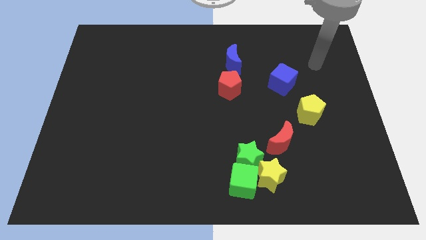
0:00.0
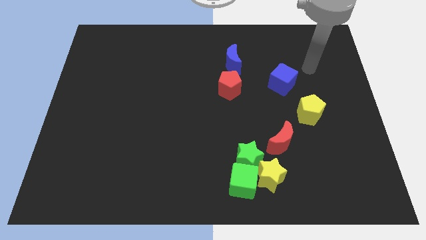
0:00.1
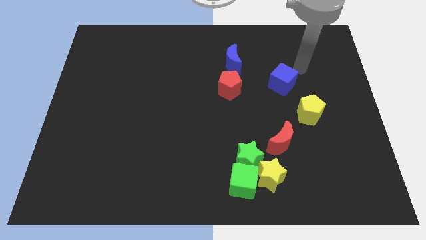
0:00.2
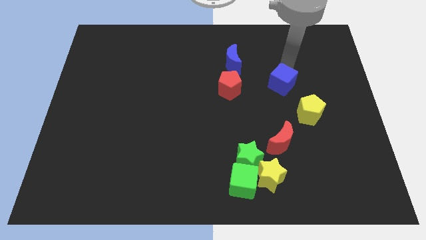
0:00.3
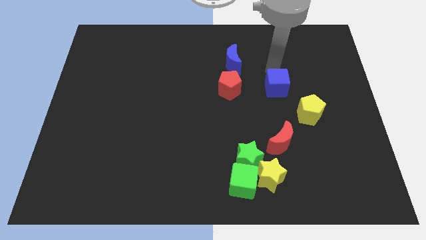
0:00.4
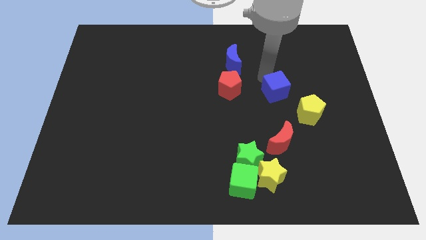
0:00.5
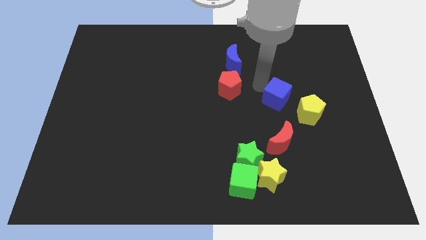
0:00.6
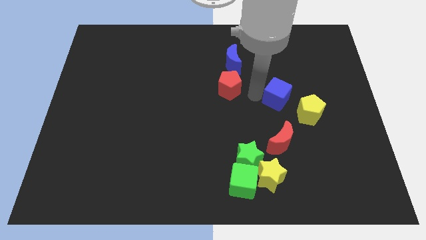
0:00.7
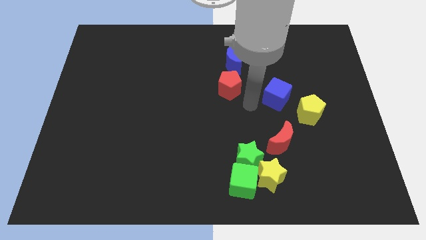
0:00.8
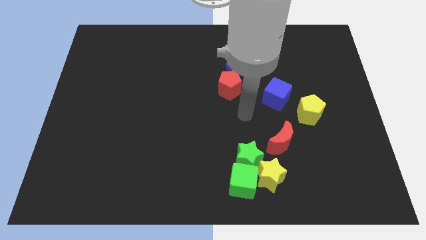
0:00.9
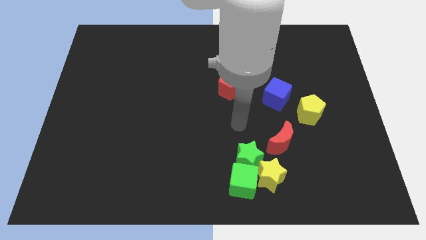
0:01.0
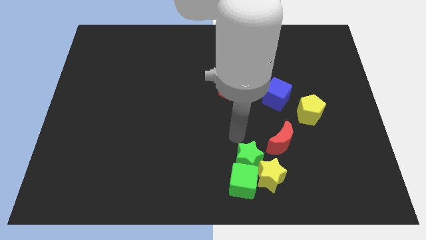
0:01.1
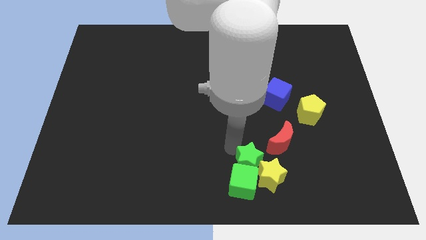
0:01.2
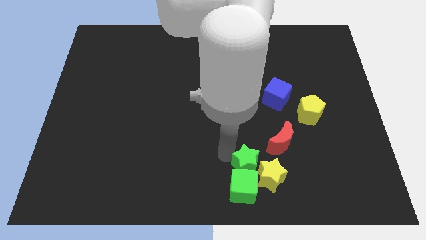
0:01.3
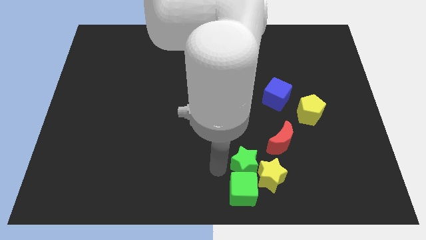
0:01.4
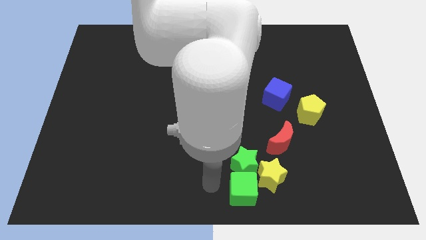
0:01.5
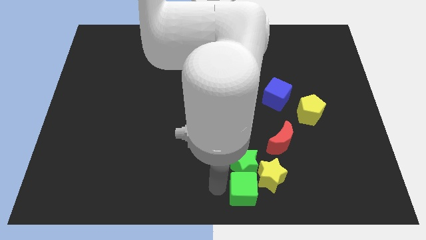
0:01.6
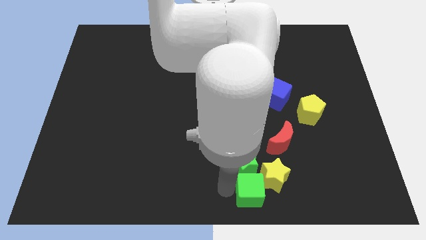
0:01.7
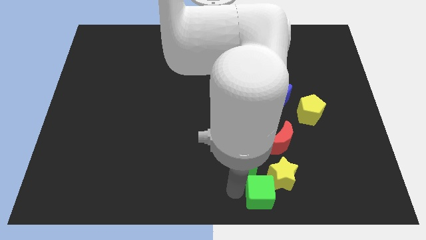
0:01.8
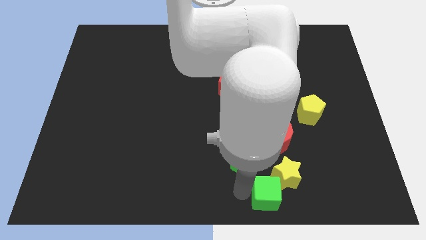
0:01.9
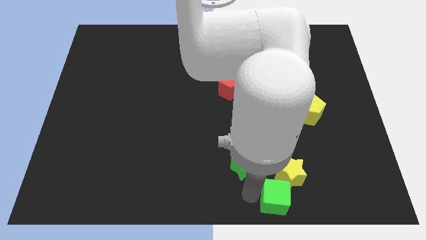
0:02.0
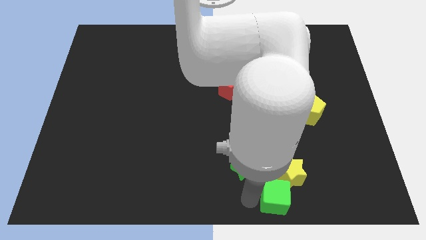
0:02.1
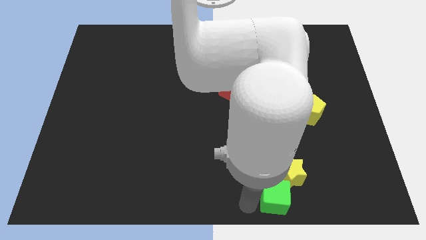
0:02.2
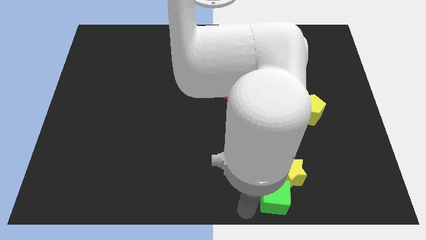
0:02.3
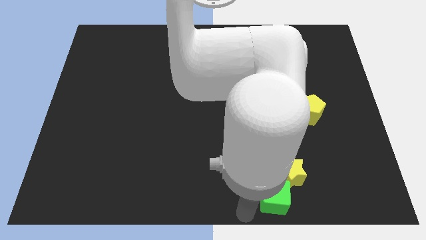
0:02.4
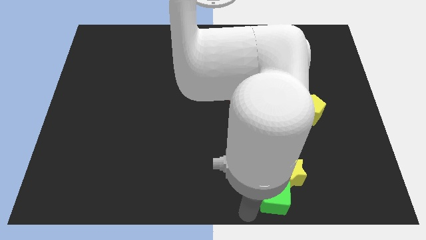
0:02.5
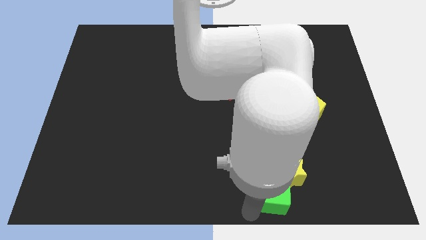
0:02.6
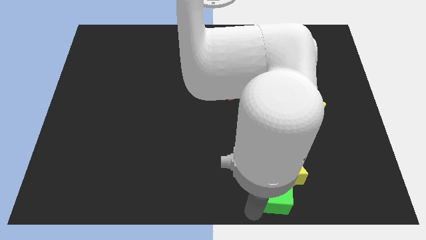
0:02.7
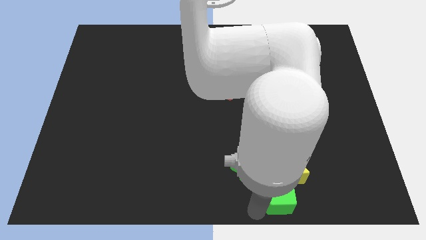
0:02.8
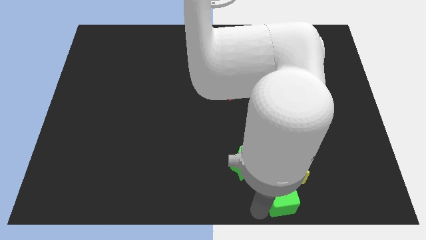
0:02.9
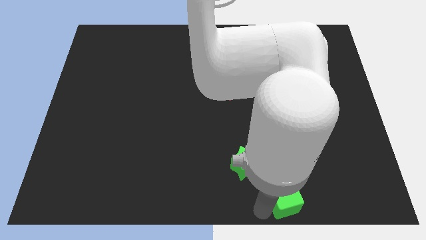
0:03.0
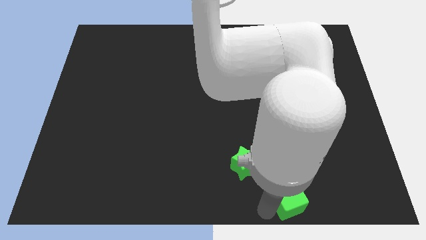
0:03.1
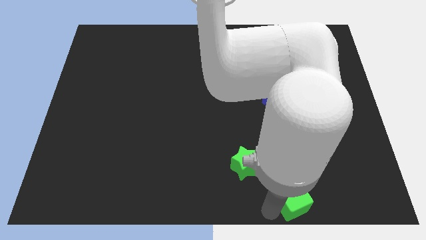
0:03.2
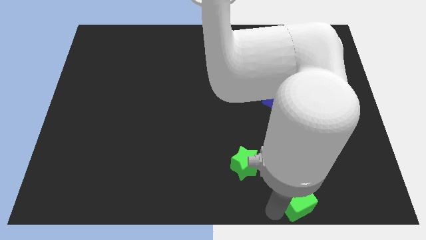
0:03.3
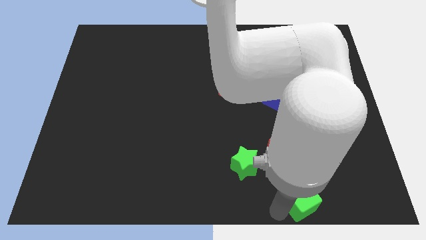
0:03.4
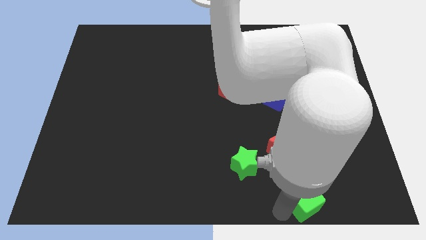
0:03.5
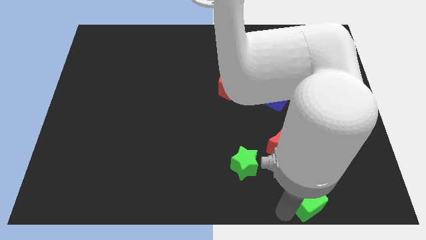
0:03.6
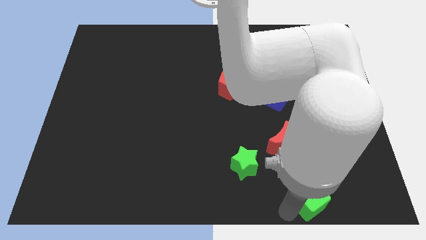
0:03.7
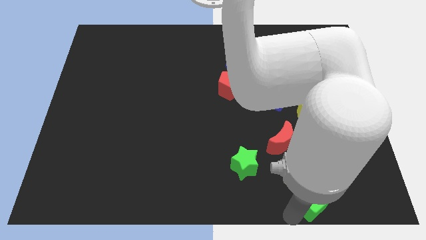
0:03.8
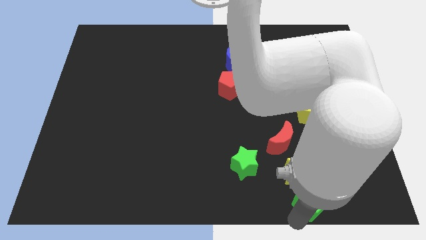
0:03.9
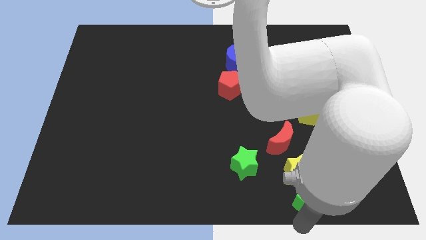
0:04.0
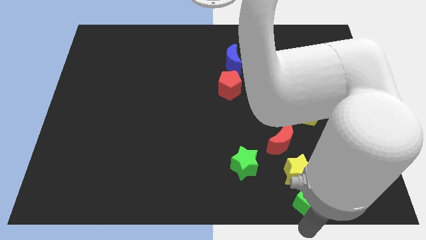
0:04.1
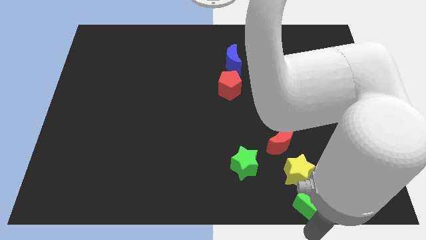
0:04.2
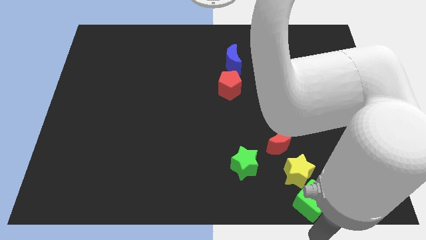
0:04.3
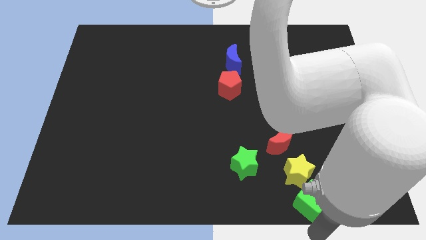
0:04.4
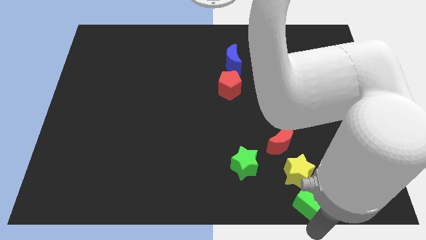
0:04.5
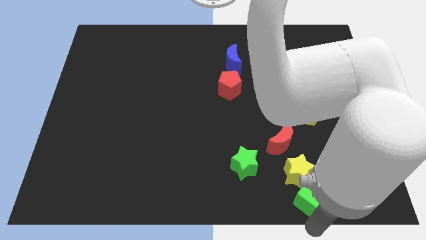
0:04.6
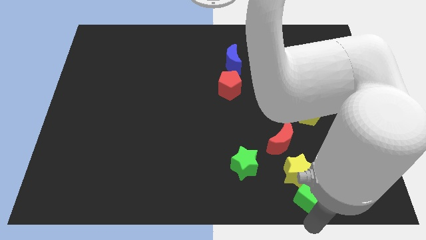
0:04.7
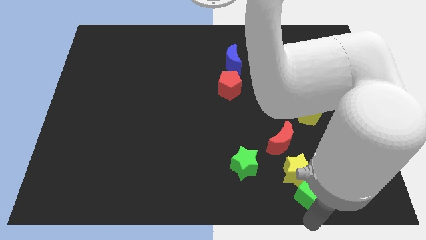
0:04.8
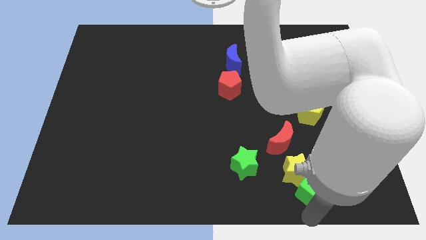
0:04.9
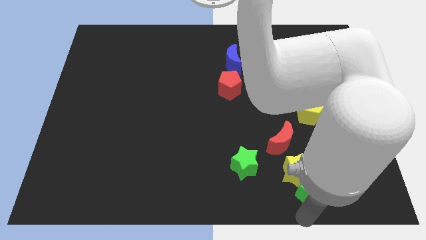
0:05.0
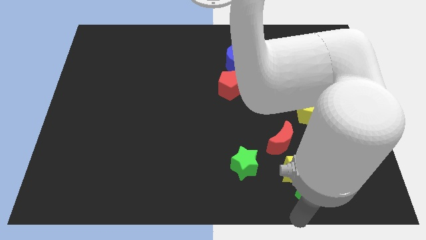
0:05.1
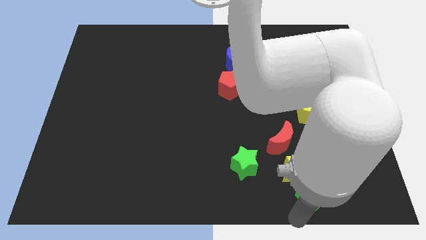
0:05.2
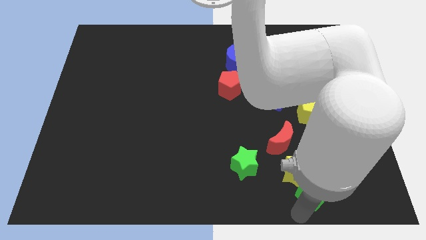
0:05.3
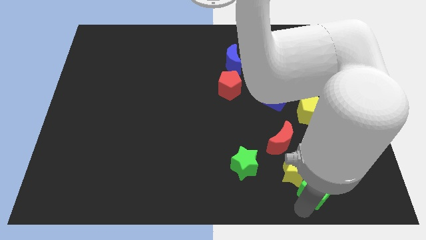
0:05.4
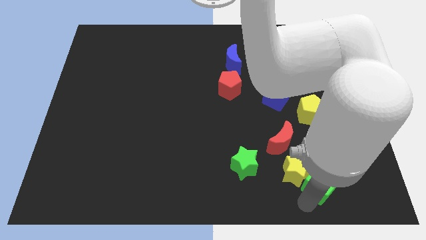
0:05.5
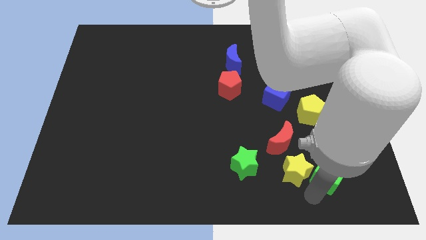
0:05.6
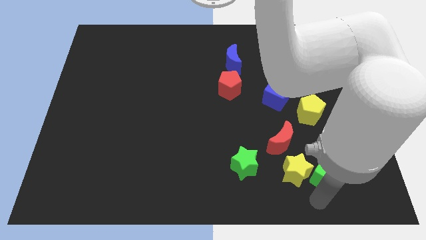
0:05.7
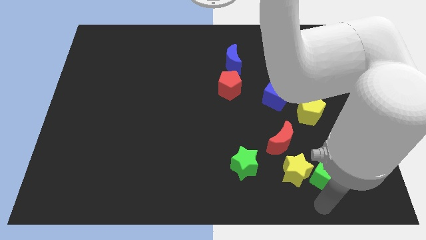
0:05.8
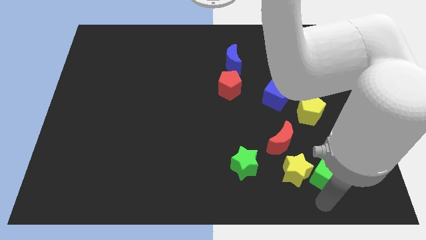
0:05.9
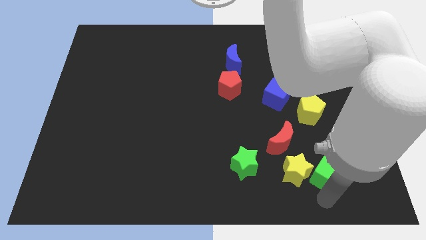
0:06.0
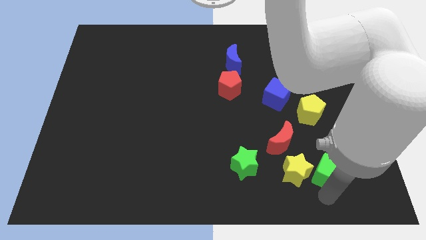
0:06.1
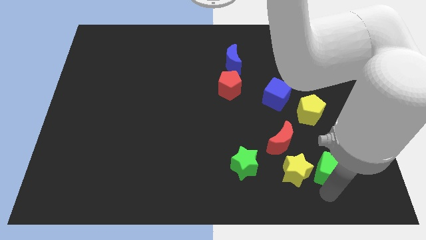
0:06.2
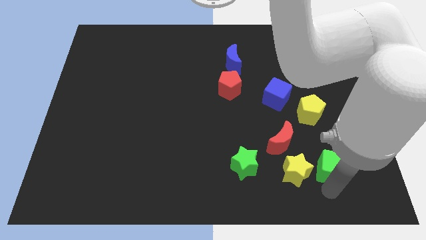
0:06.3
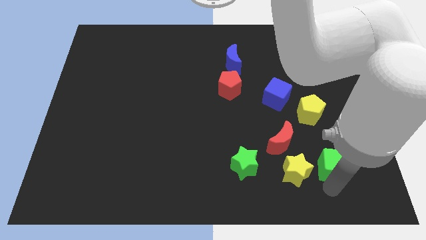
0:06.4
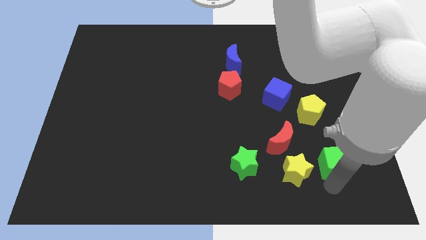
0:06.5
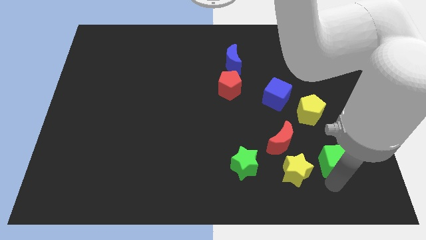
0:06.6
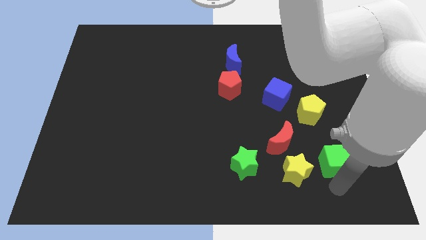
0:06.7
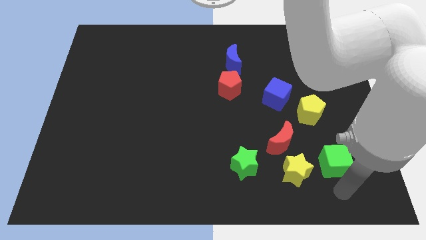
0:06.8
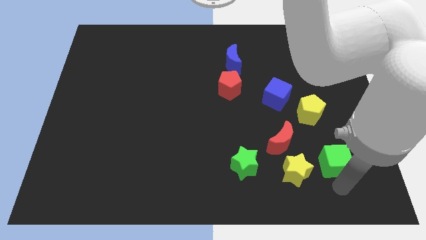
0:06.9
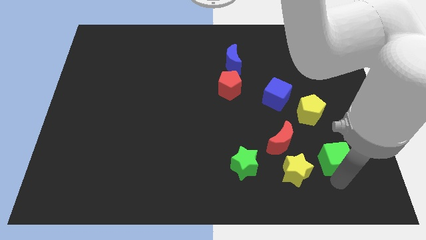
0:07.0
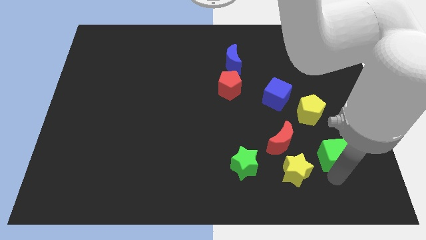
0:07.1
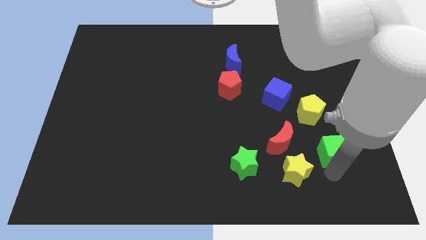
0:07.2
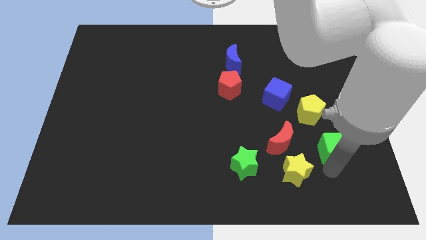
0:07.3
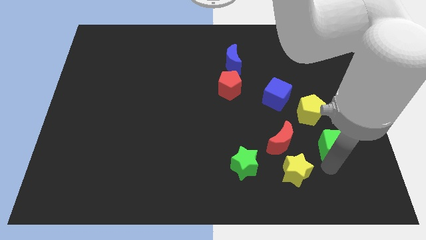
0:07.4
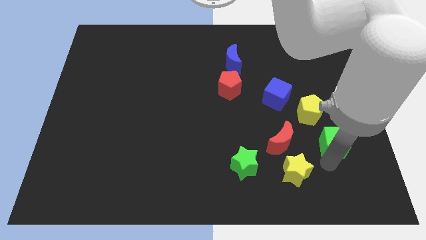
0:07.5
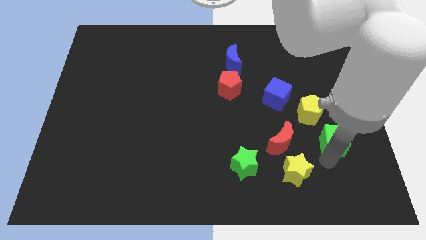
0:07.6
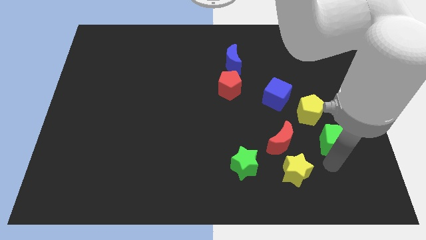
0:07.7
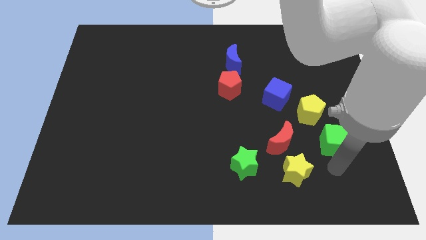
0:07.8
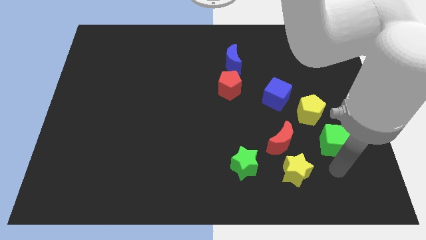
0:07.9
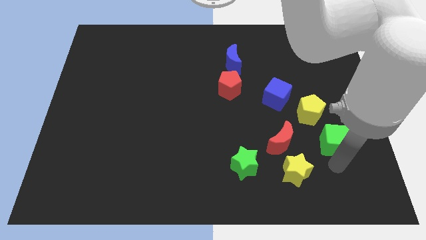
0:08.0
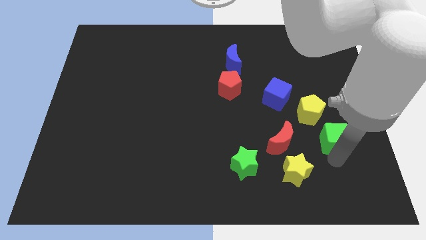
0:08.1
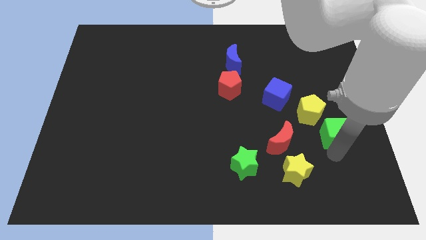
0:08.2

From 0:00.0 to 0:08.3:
push the green cube up and right
